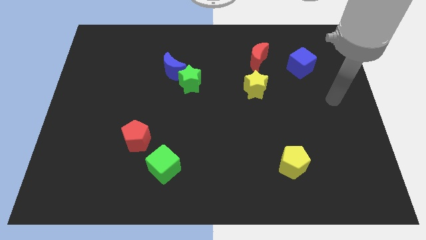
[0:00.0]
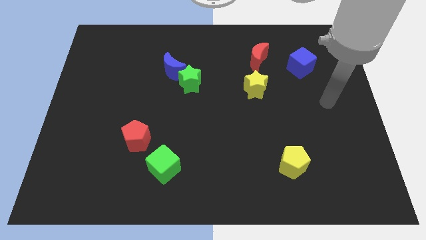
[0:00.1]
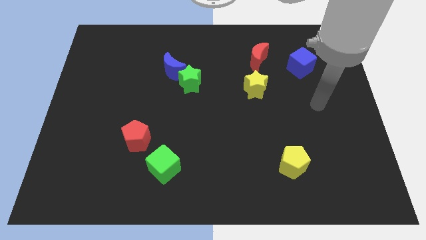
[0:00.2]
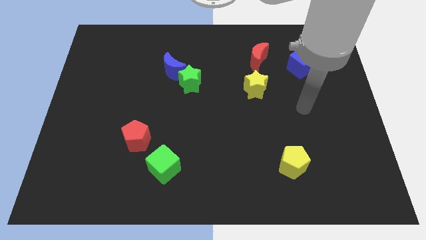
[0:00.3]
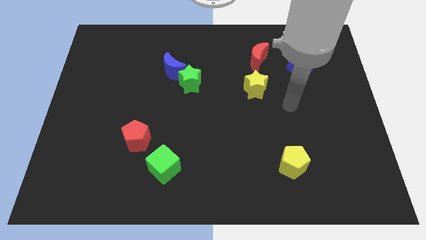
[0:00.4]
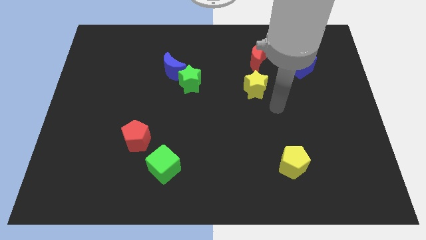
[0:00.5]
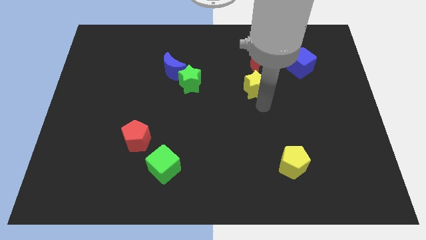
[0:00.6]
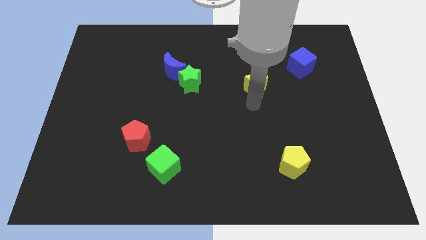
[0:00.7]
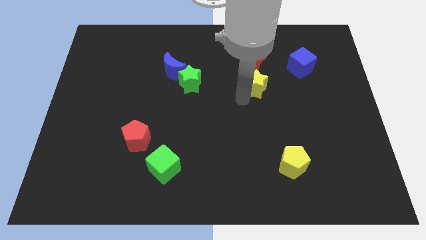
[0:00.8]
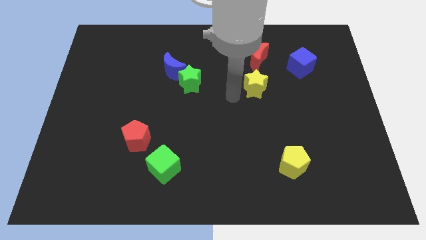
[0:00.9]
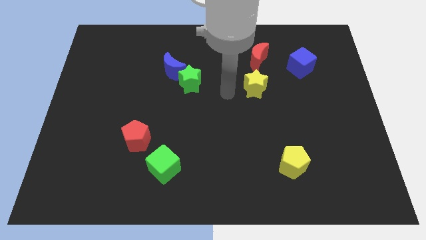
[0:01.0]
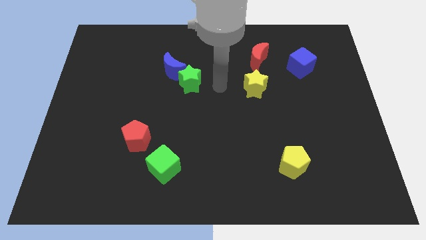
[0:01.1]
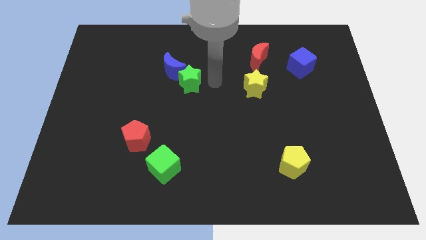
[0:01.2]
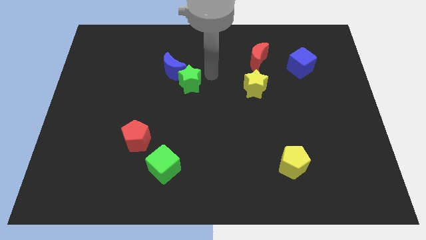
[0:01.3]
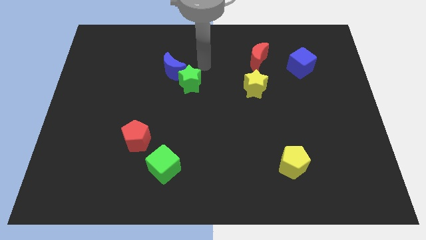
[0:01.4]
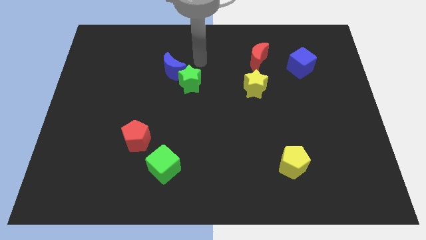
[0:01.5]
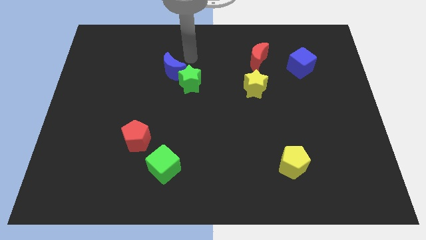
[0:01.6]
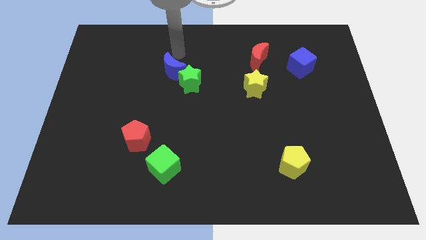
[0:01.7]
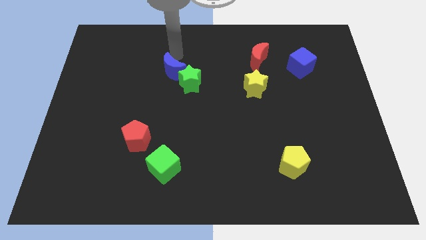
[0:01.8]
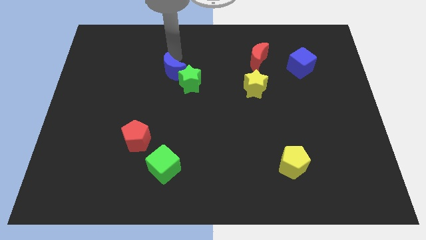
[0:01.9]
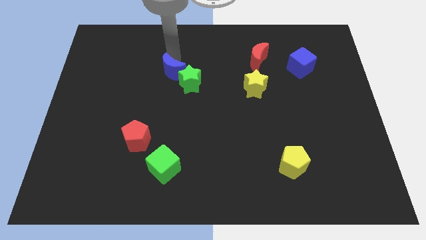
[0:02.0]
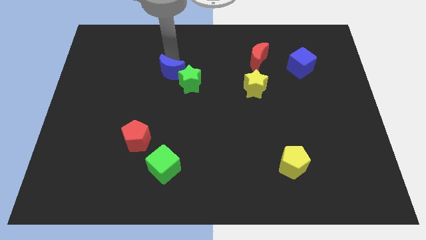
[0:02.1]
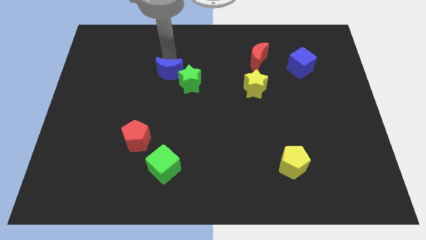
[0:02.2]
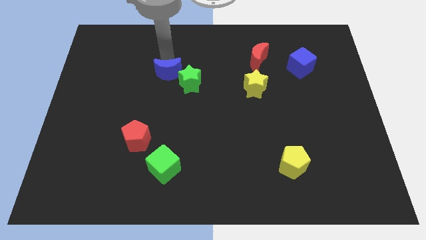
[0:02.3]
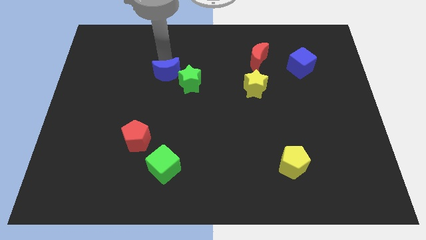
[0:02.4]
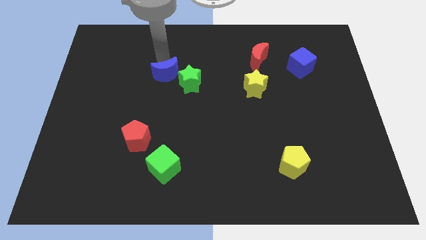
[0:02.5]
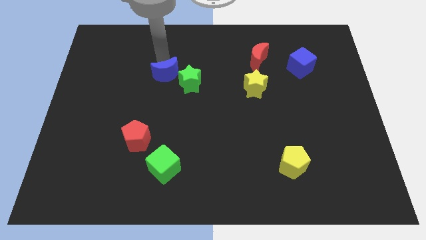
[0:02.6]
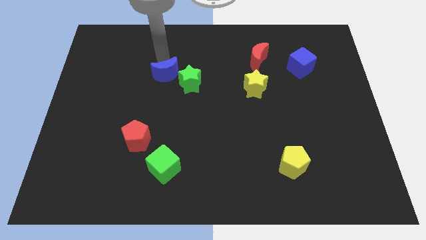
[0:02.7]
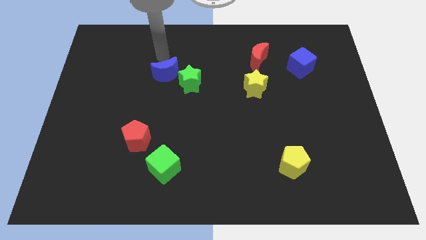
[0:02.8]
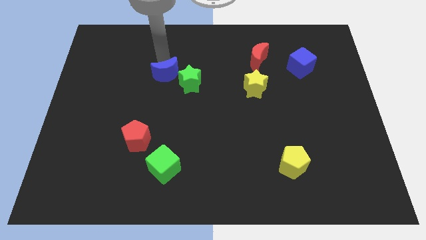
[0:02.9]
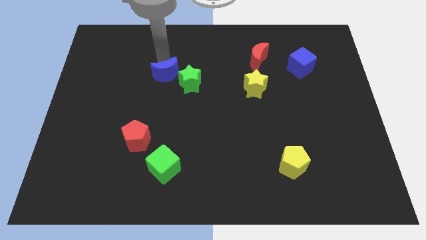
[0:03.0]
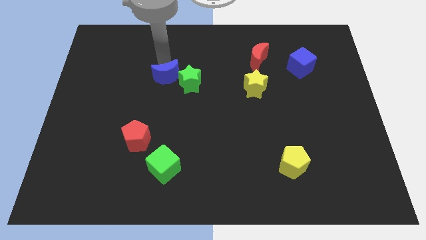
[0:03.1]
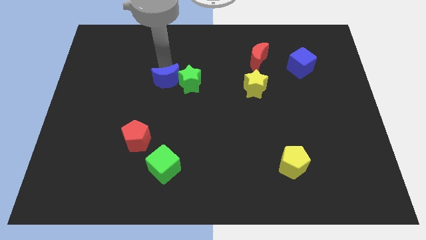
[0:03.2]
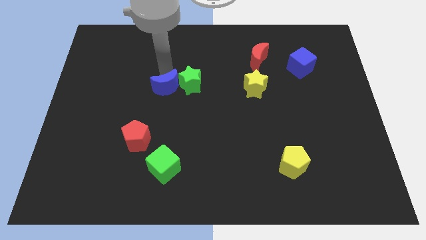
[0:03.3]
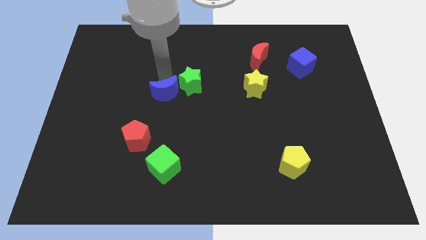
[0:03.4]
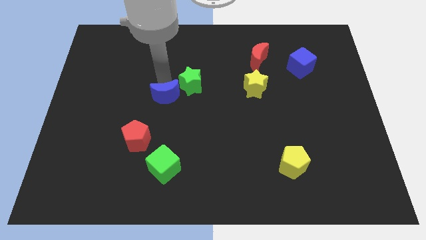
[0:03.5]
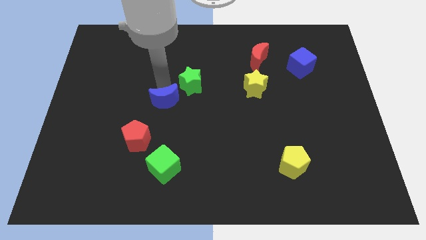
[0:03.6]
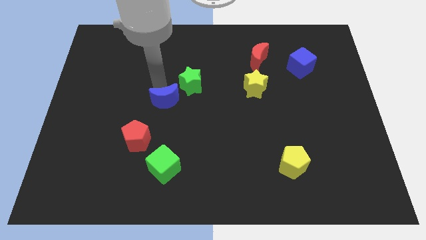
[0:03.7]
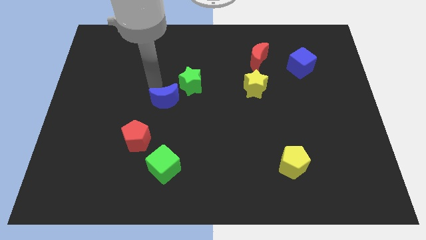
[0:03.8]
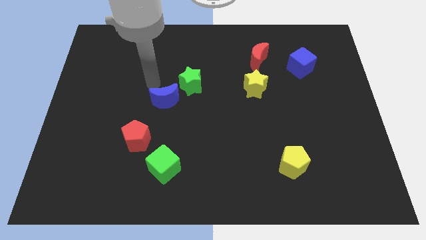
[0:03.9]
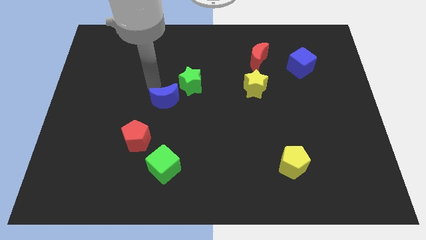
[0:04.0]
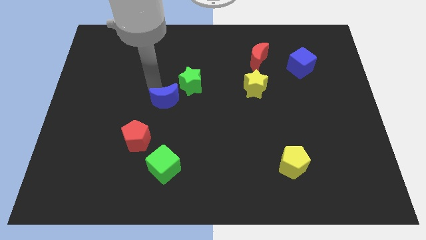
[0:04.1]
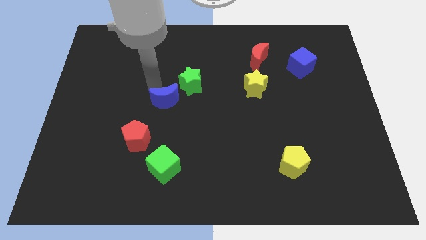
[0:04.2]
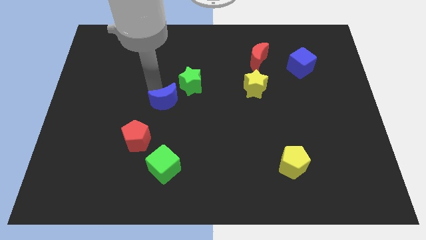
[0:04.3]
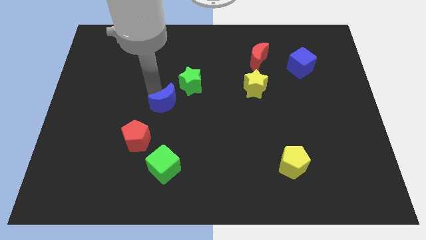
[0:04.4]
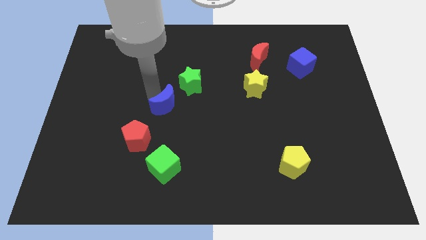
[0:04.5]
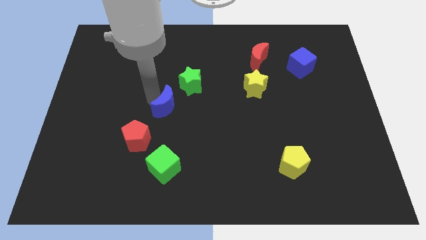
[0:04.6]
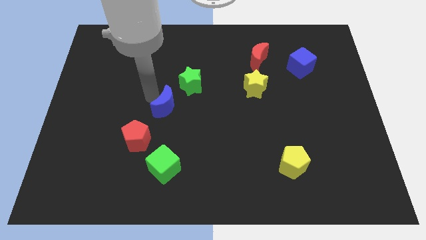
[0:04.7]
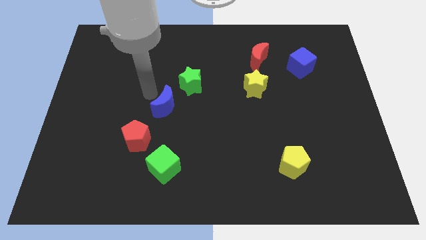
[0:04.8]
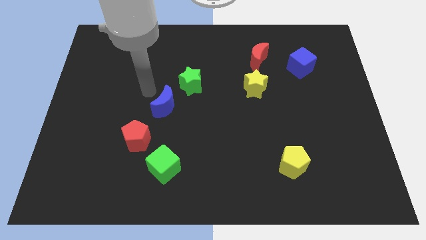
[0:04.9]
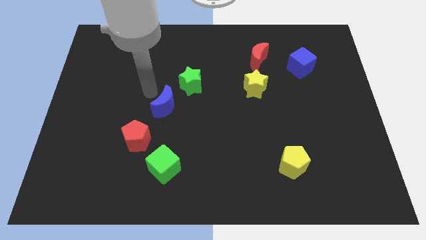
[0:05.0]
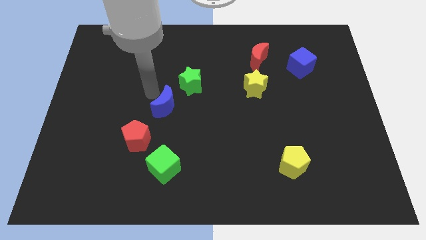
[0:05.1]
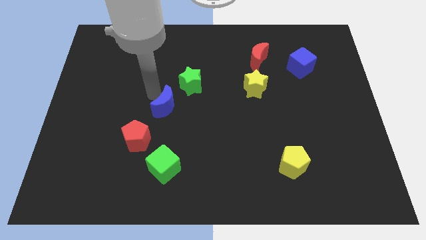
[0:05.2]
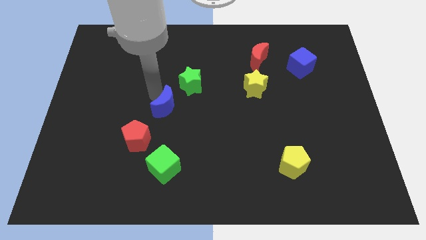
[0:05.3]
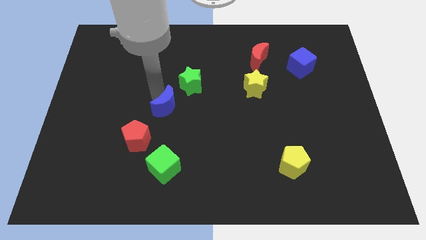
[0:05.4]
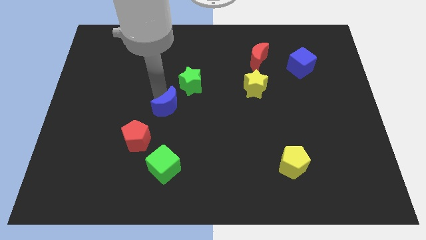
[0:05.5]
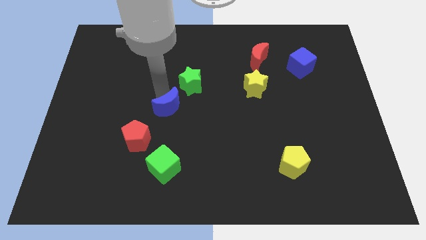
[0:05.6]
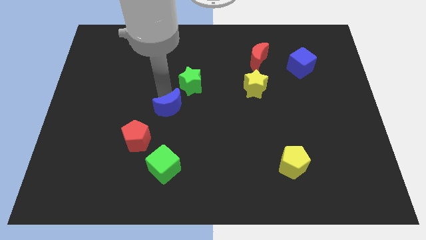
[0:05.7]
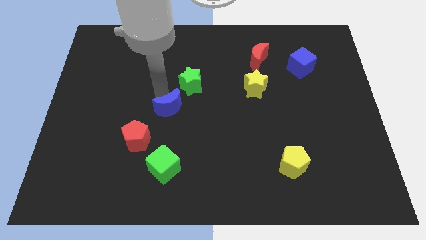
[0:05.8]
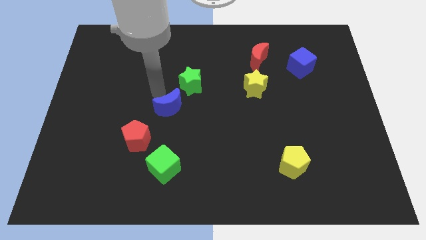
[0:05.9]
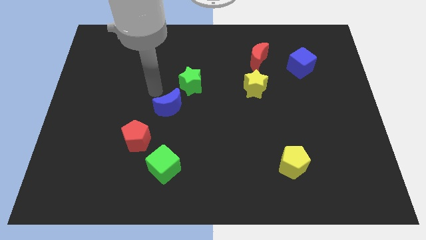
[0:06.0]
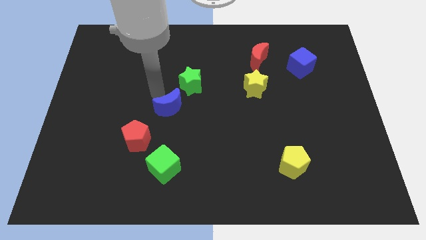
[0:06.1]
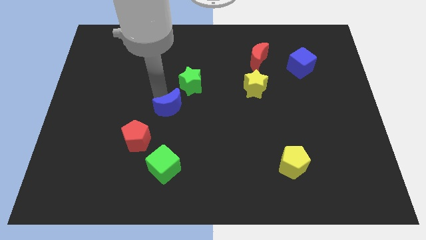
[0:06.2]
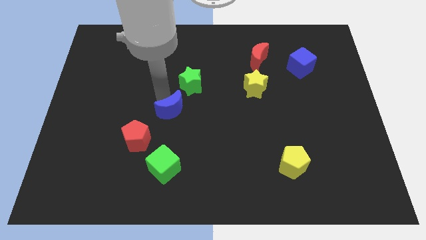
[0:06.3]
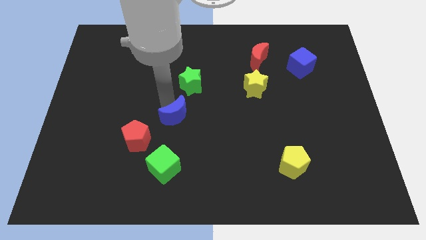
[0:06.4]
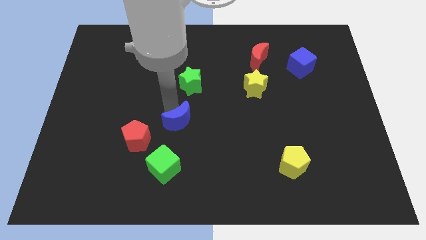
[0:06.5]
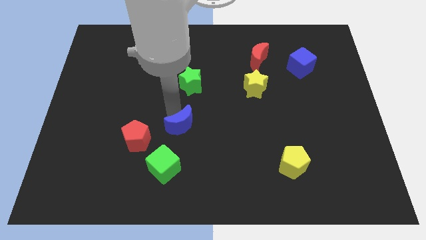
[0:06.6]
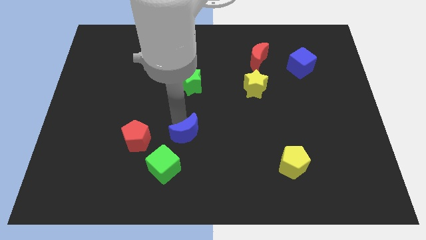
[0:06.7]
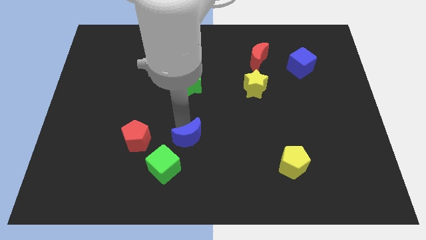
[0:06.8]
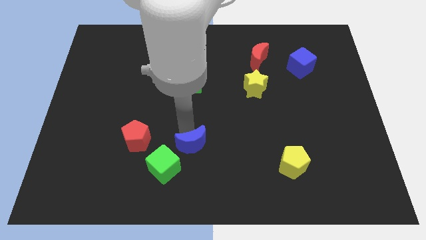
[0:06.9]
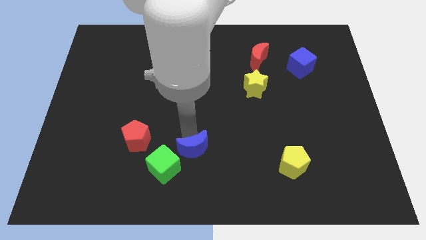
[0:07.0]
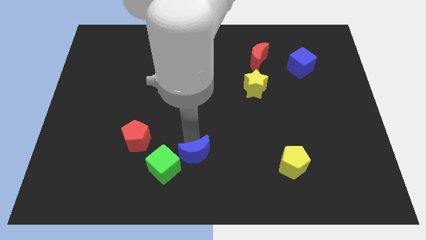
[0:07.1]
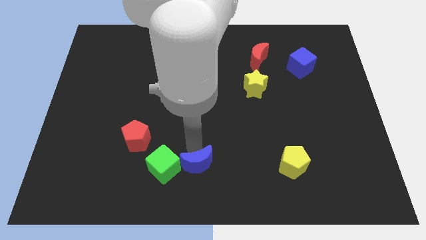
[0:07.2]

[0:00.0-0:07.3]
slide the blue moon to the bottom

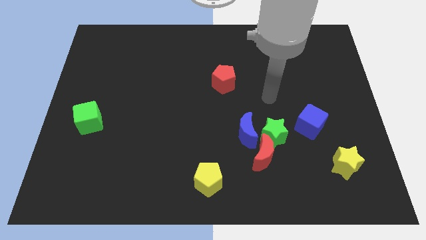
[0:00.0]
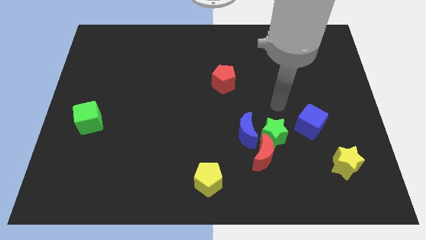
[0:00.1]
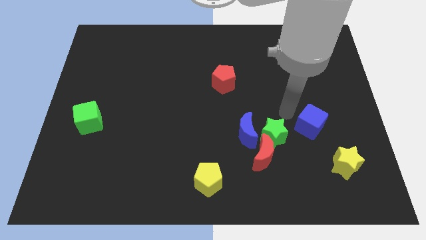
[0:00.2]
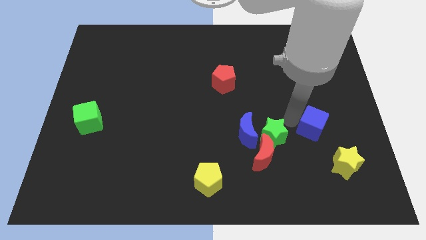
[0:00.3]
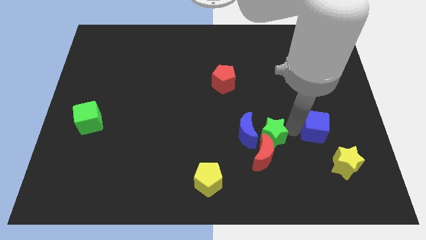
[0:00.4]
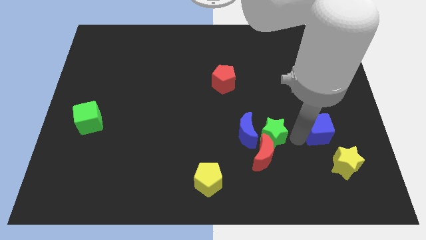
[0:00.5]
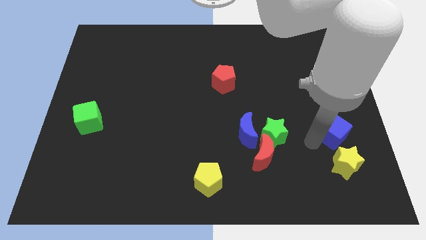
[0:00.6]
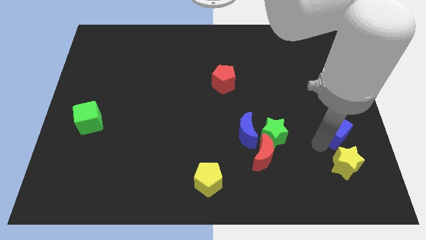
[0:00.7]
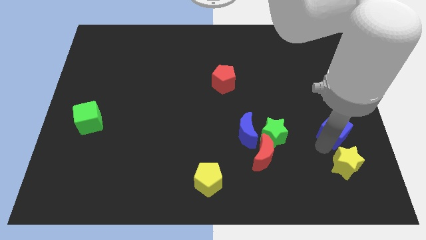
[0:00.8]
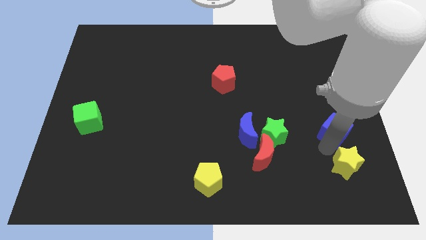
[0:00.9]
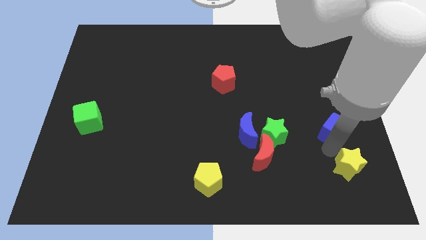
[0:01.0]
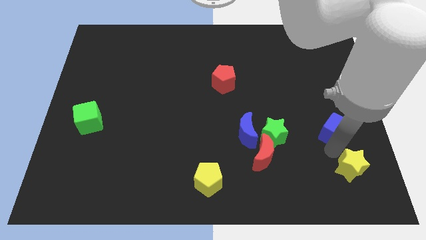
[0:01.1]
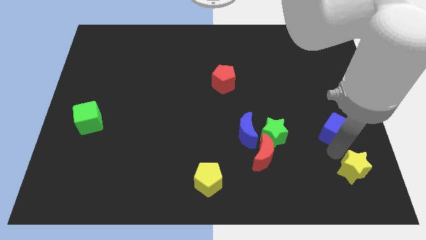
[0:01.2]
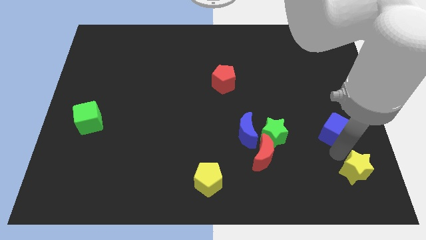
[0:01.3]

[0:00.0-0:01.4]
push the yellow star to the bottom right corner
